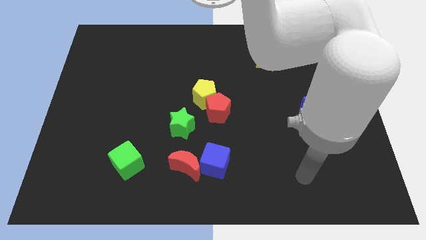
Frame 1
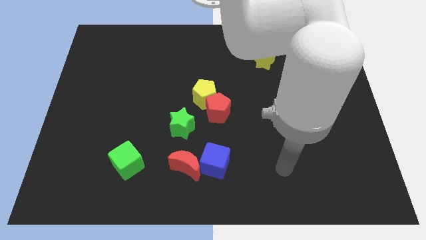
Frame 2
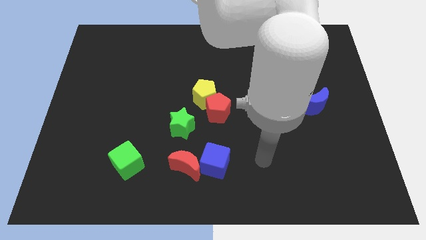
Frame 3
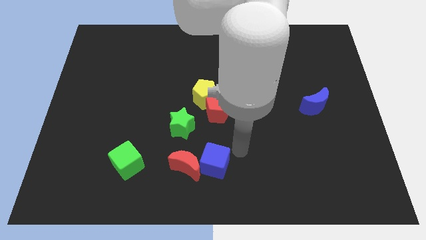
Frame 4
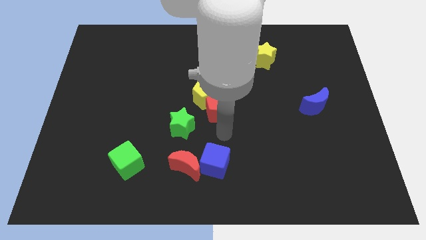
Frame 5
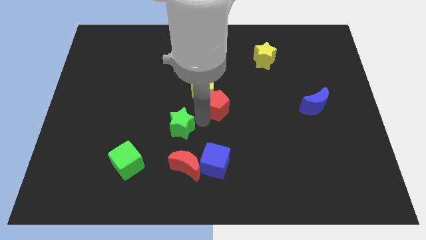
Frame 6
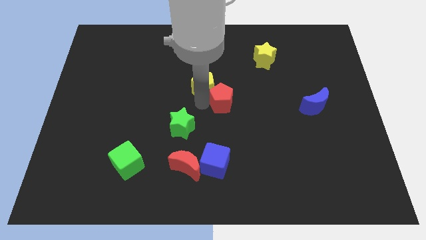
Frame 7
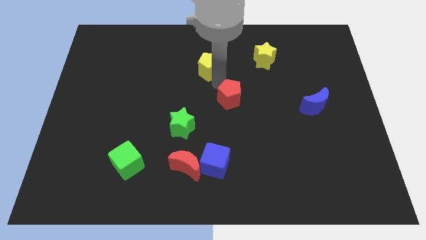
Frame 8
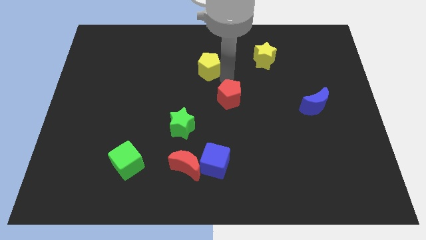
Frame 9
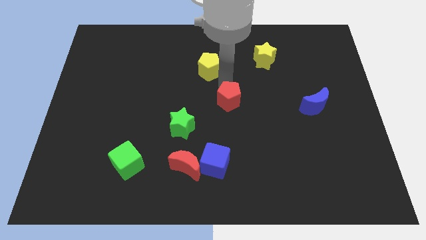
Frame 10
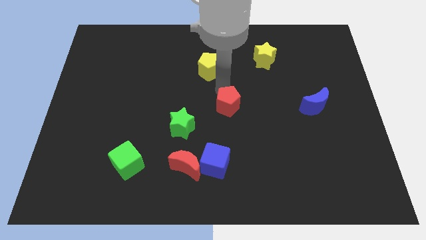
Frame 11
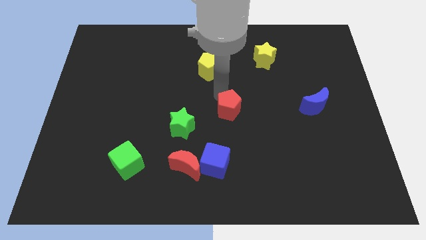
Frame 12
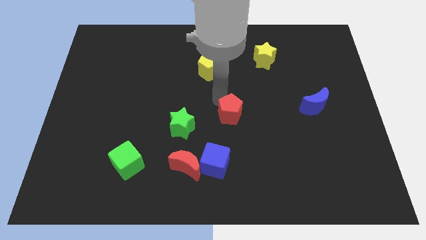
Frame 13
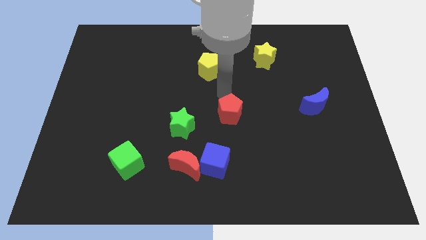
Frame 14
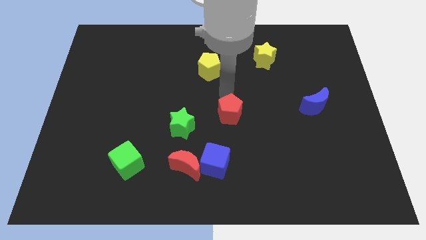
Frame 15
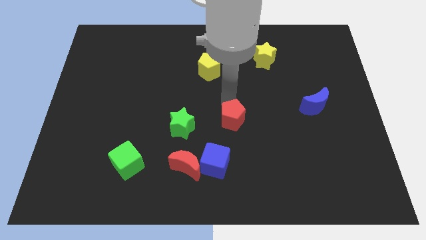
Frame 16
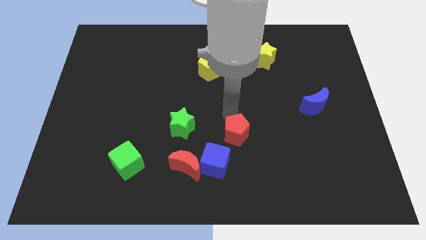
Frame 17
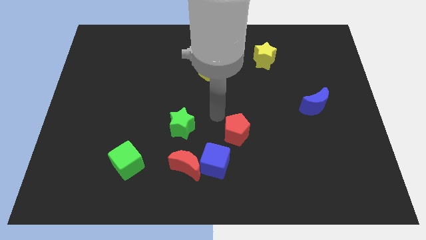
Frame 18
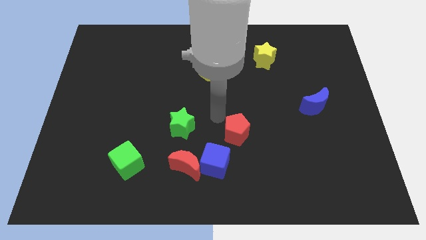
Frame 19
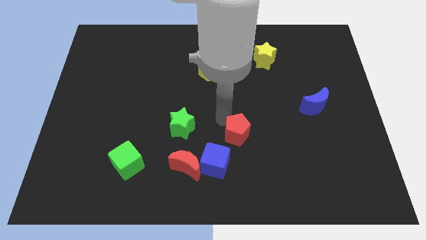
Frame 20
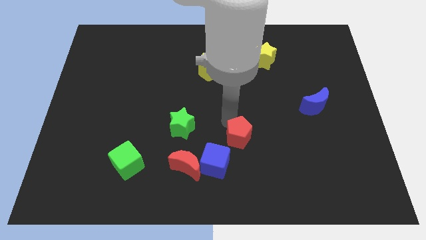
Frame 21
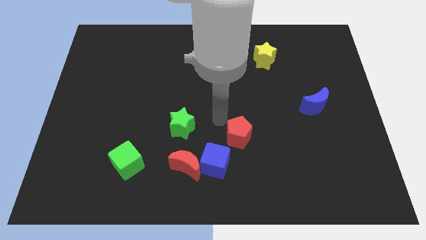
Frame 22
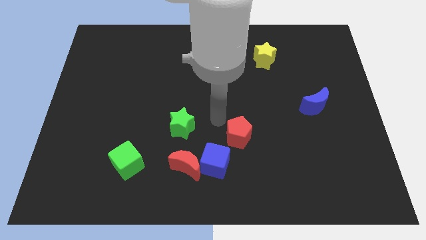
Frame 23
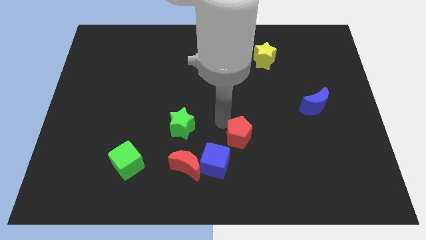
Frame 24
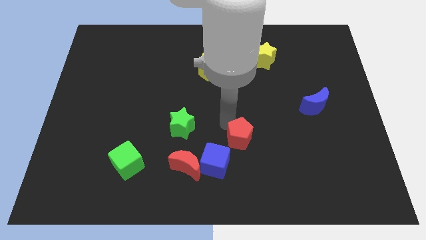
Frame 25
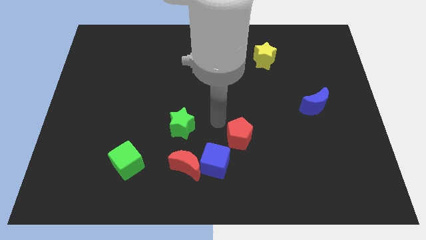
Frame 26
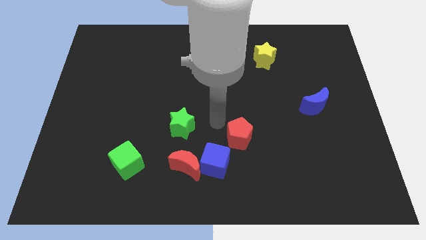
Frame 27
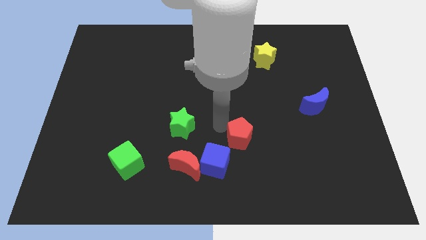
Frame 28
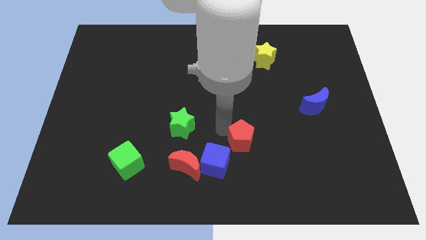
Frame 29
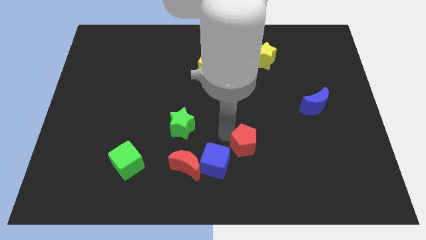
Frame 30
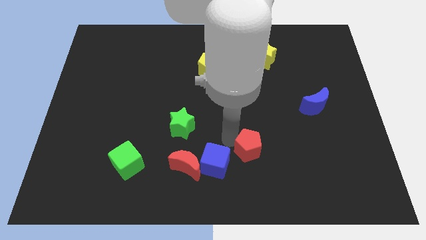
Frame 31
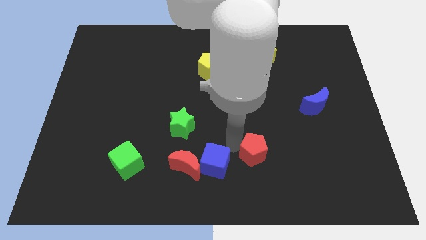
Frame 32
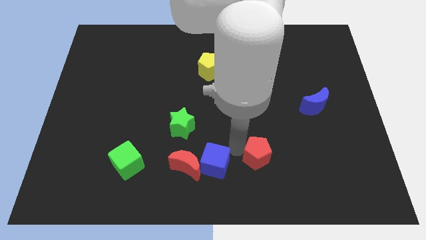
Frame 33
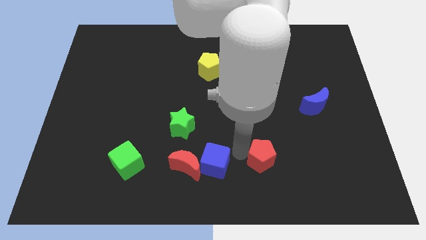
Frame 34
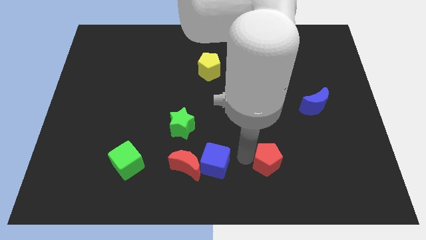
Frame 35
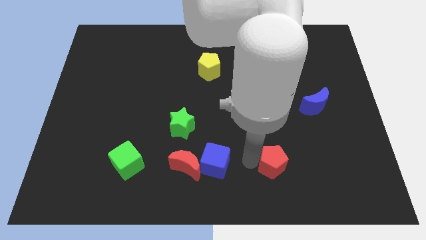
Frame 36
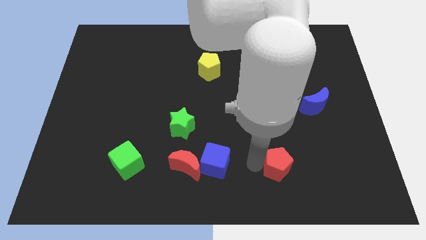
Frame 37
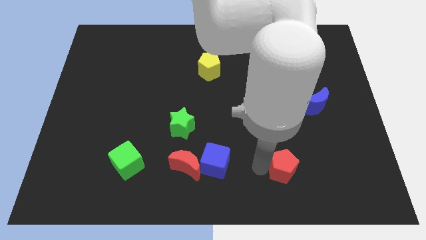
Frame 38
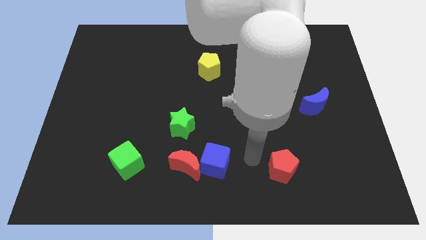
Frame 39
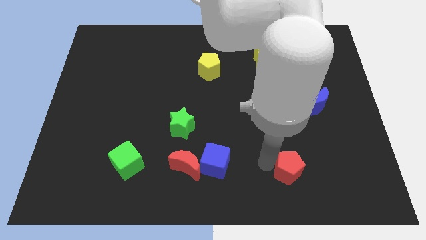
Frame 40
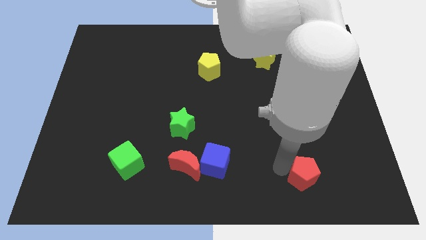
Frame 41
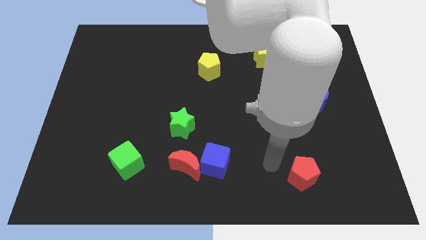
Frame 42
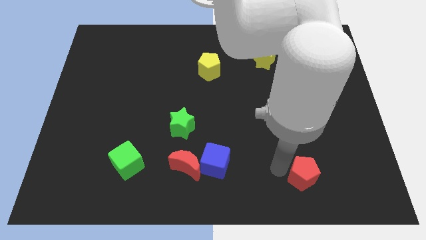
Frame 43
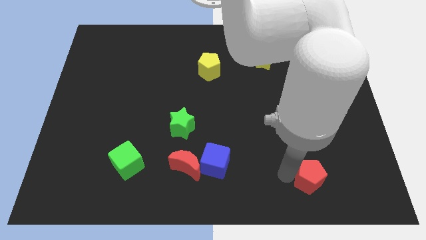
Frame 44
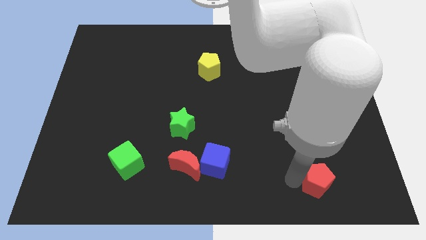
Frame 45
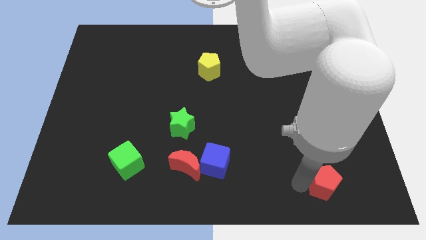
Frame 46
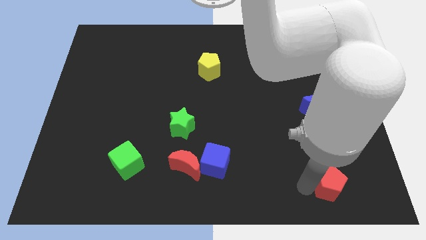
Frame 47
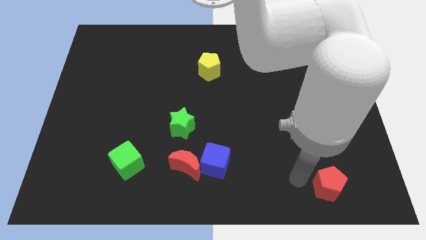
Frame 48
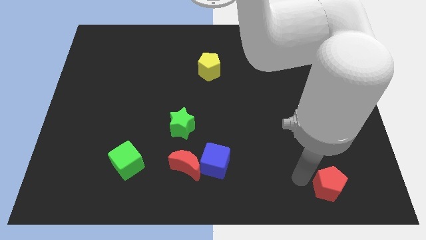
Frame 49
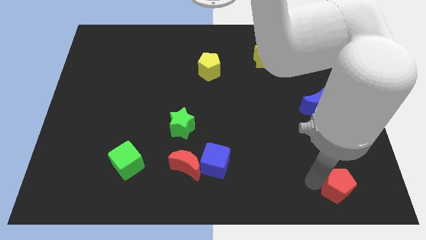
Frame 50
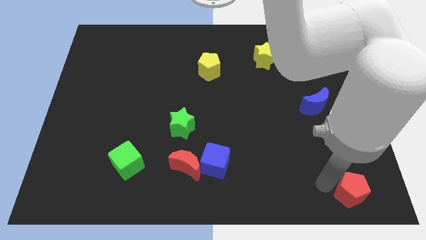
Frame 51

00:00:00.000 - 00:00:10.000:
push the red pentagon to the bottom right of the board

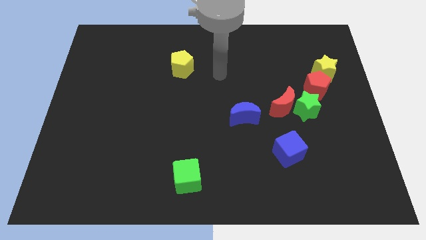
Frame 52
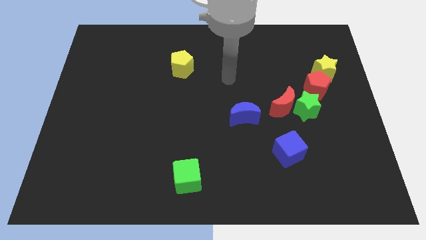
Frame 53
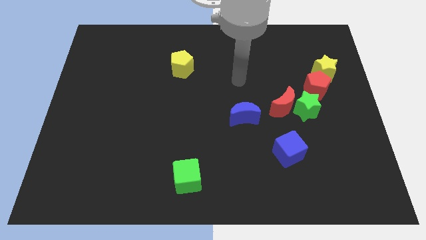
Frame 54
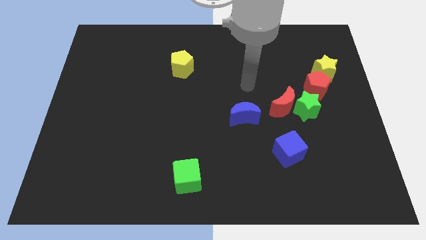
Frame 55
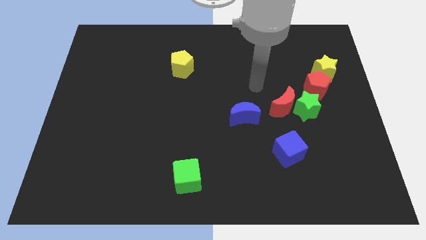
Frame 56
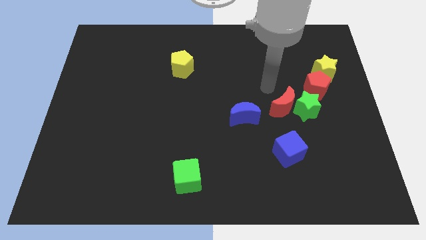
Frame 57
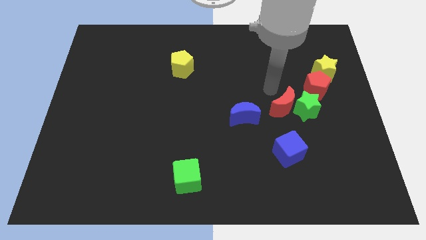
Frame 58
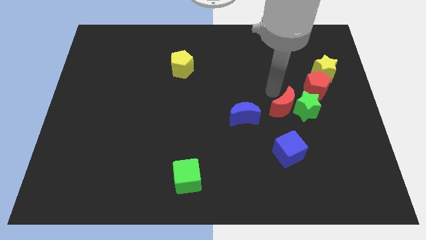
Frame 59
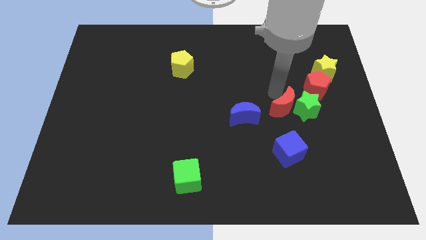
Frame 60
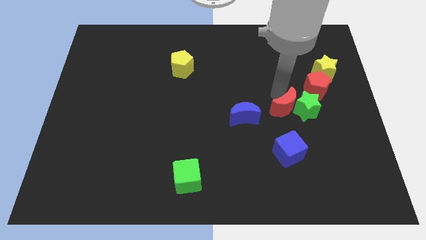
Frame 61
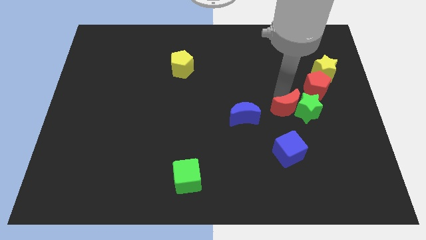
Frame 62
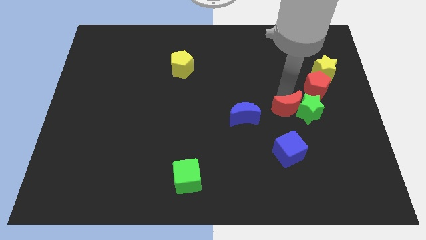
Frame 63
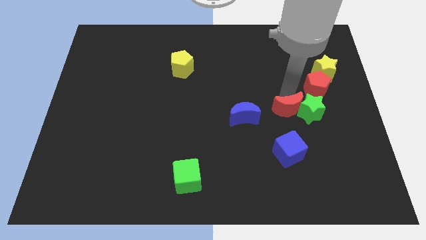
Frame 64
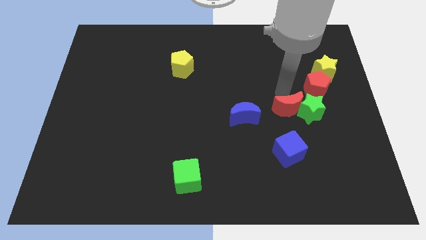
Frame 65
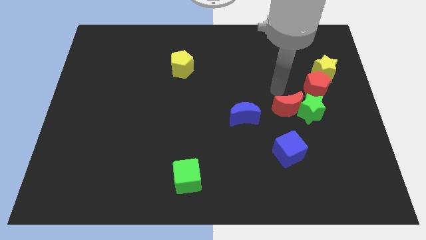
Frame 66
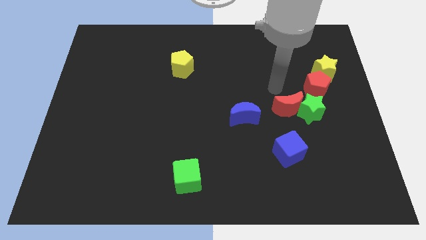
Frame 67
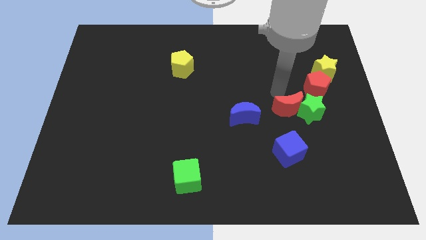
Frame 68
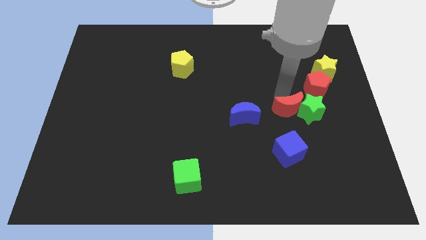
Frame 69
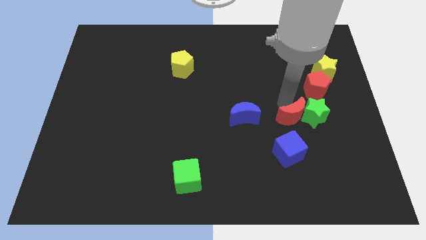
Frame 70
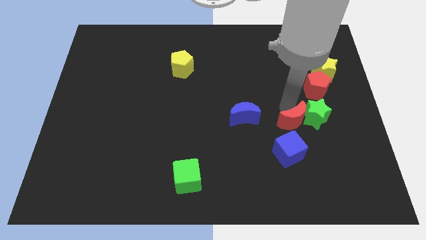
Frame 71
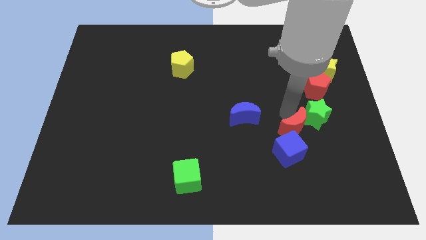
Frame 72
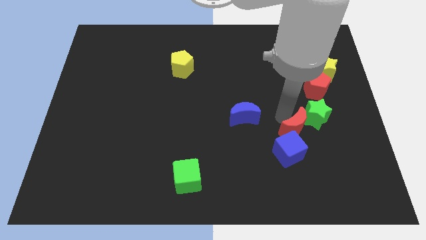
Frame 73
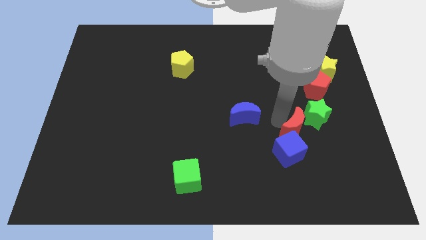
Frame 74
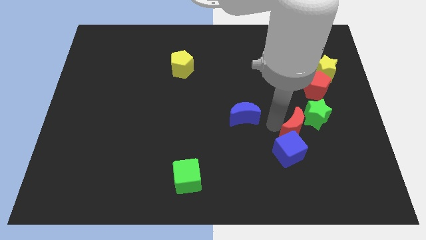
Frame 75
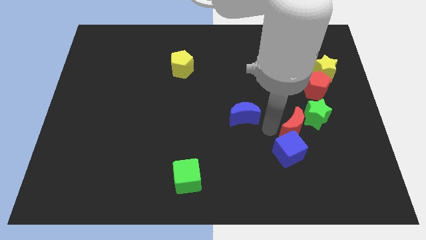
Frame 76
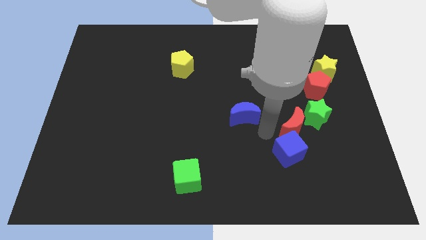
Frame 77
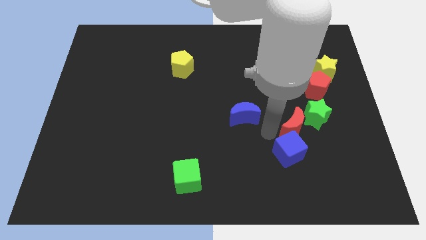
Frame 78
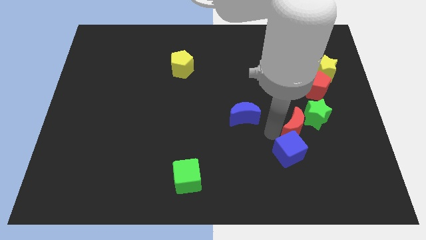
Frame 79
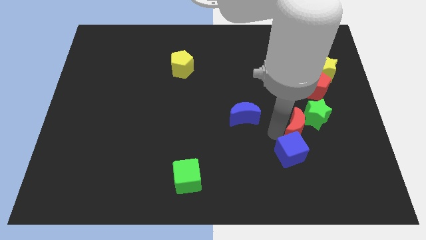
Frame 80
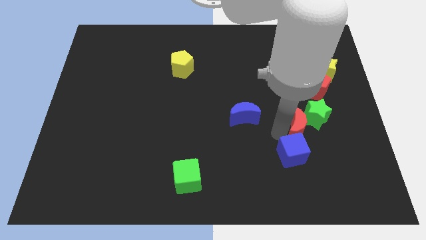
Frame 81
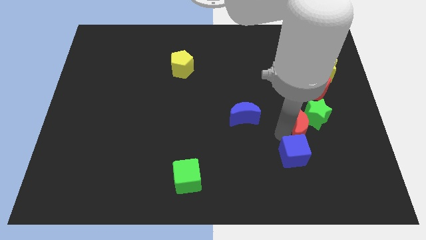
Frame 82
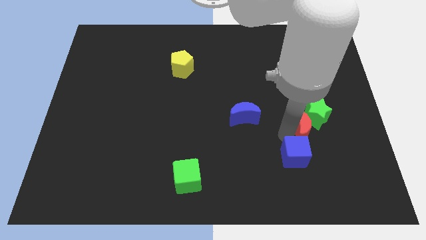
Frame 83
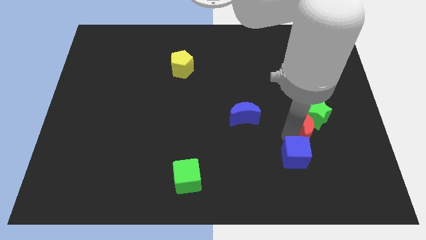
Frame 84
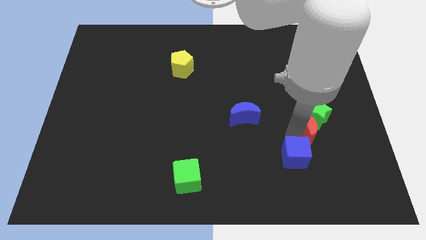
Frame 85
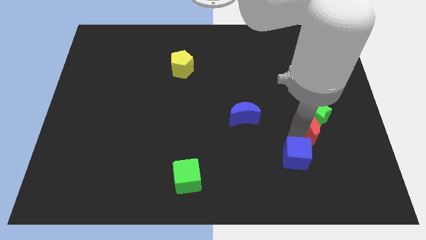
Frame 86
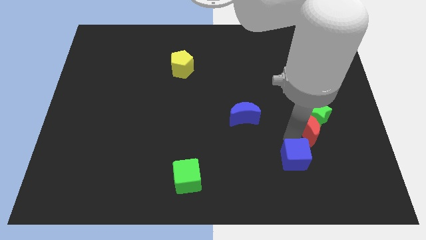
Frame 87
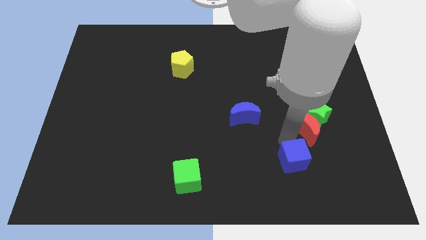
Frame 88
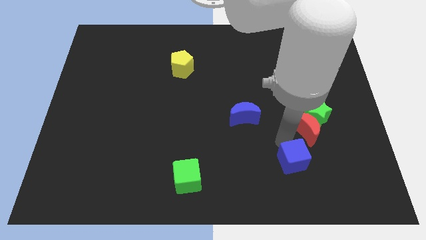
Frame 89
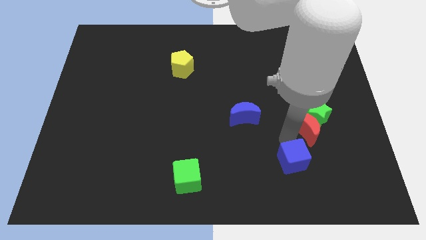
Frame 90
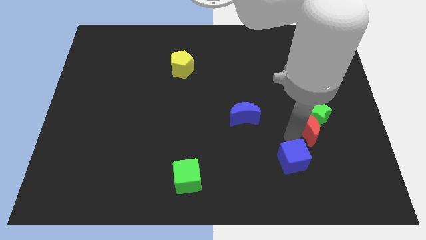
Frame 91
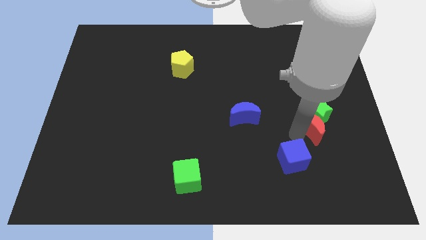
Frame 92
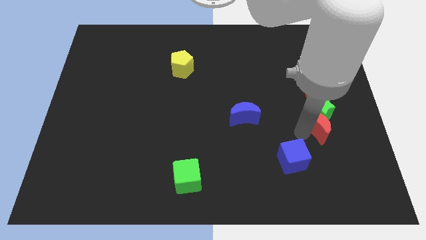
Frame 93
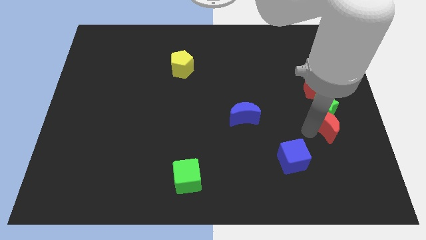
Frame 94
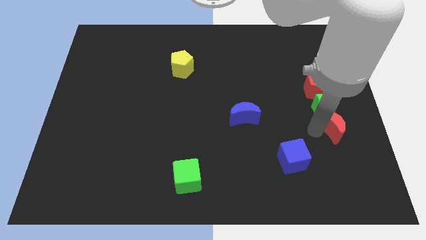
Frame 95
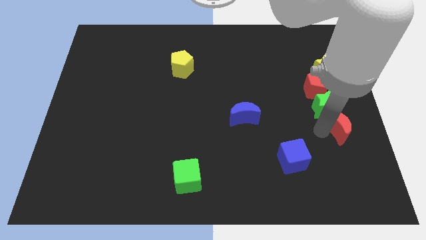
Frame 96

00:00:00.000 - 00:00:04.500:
slide the red moon to the right side
